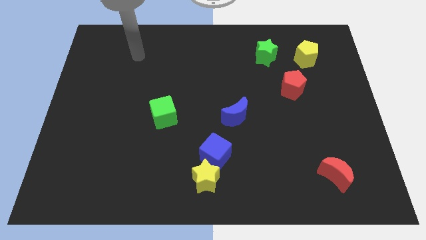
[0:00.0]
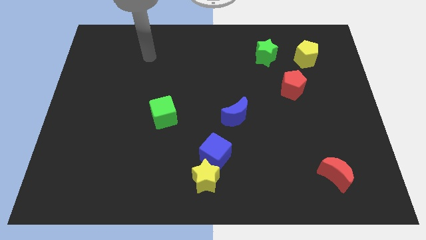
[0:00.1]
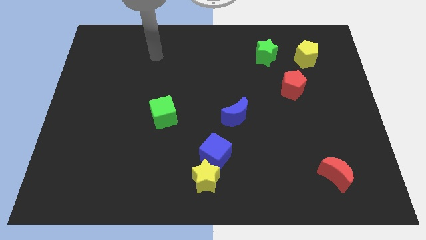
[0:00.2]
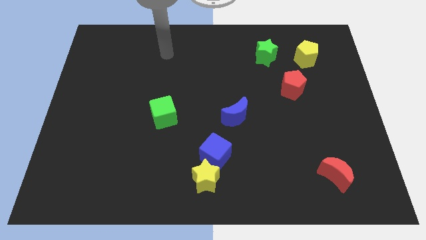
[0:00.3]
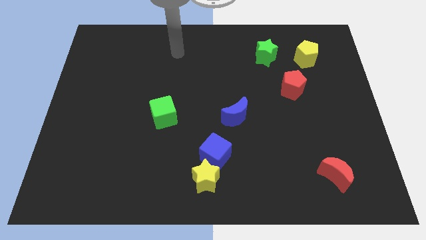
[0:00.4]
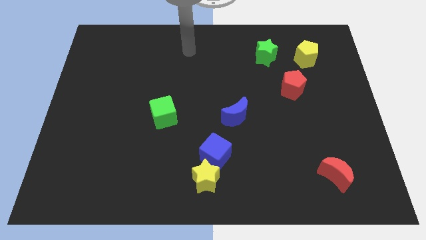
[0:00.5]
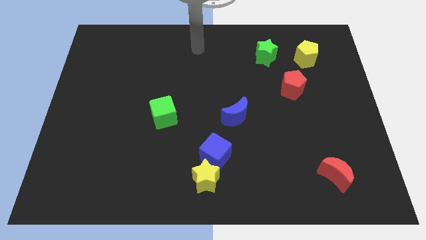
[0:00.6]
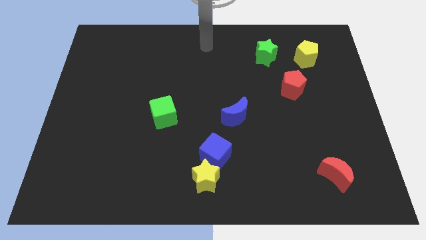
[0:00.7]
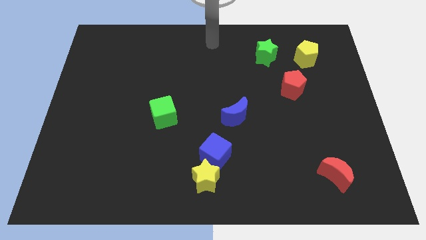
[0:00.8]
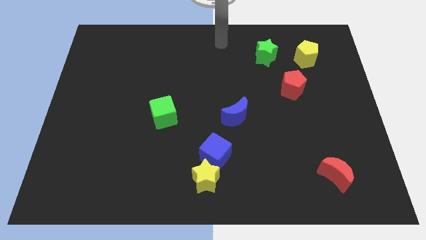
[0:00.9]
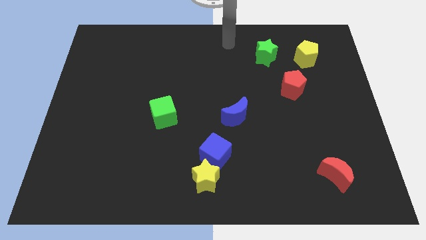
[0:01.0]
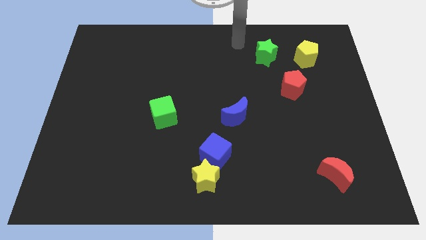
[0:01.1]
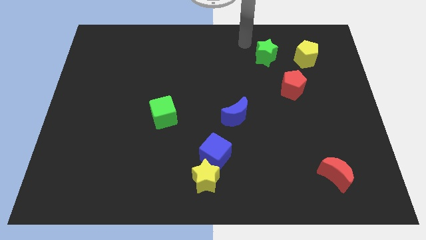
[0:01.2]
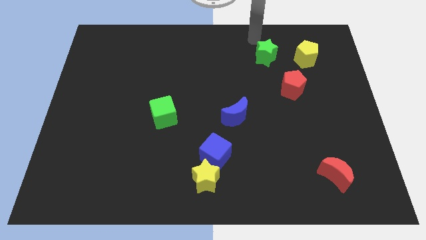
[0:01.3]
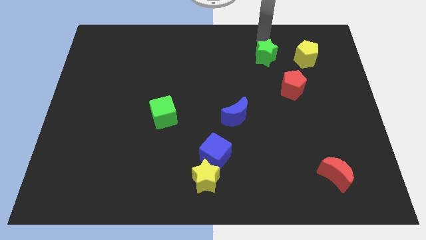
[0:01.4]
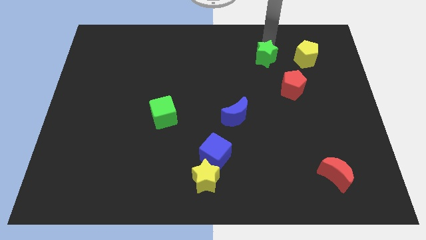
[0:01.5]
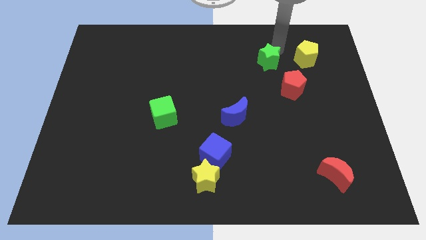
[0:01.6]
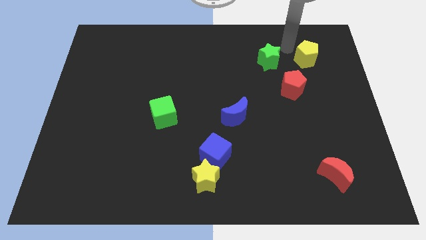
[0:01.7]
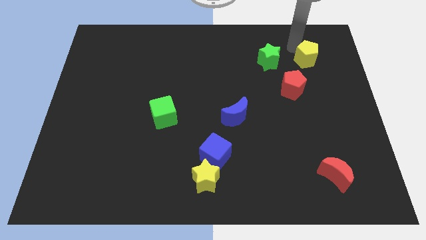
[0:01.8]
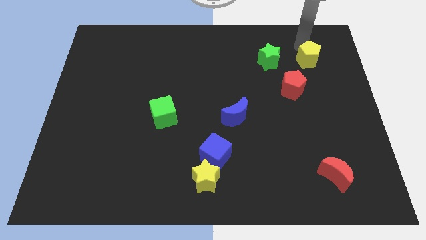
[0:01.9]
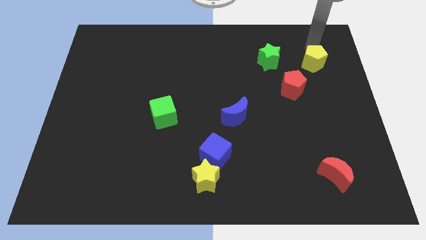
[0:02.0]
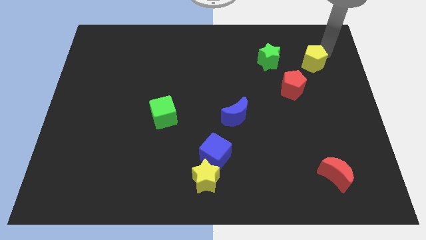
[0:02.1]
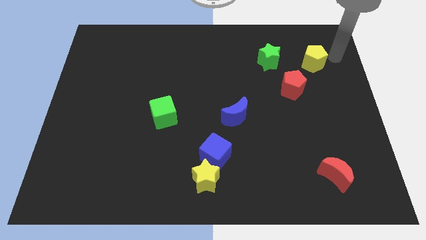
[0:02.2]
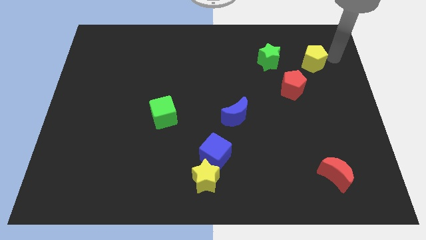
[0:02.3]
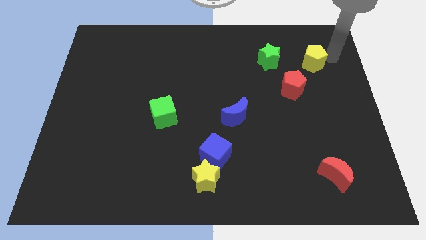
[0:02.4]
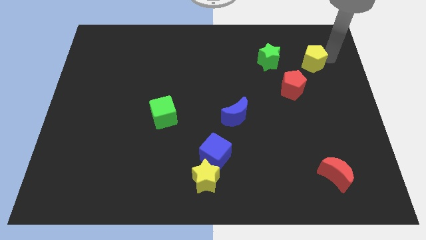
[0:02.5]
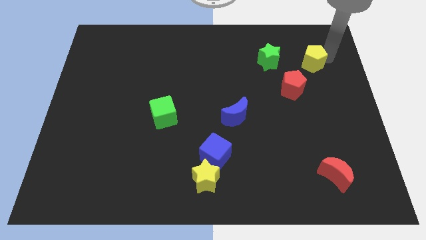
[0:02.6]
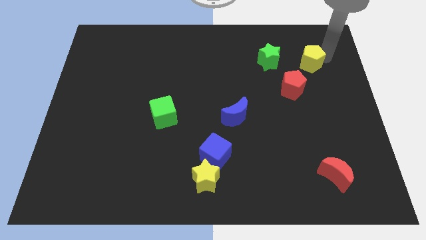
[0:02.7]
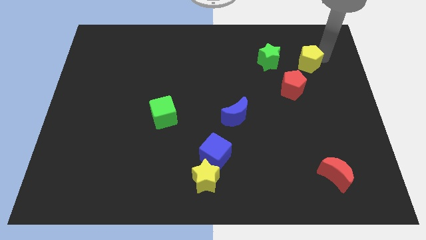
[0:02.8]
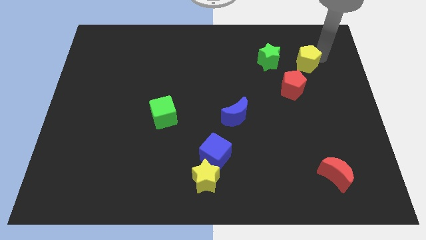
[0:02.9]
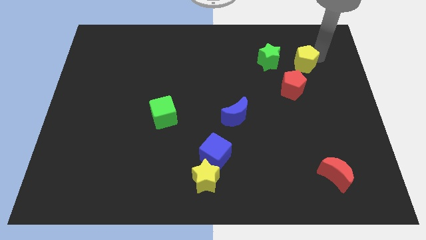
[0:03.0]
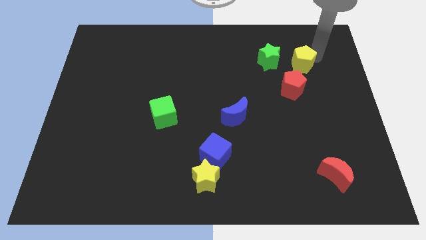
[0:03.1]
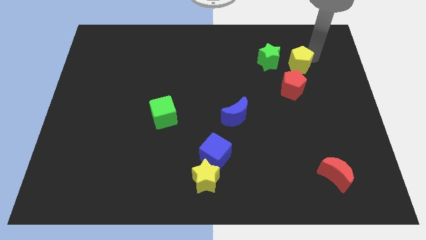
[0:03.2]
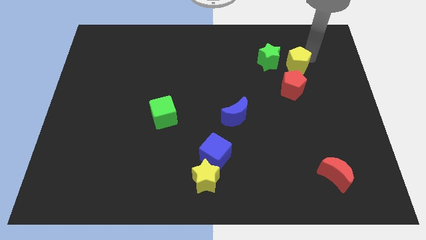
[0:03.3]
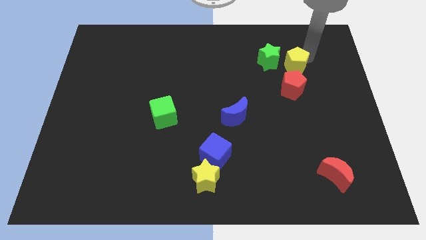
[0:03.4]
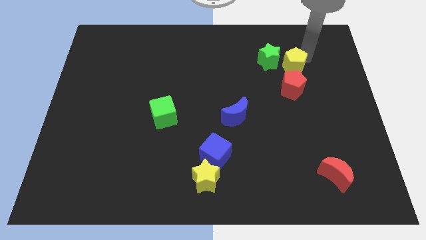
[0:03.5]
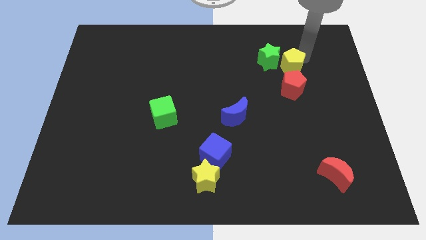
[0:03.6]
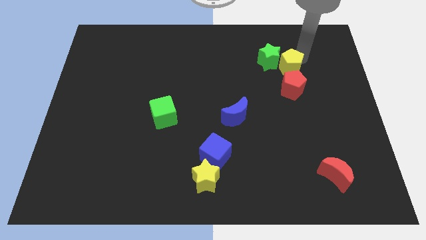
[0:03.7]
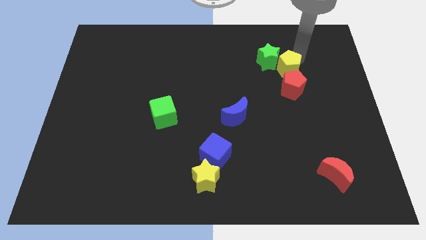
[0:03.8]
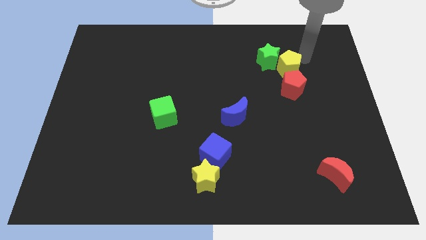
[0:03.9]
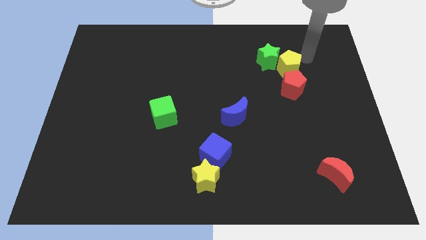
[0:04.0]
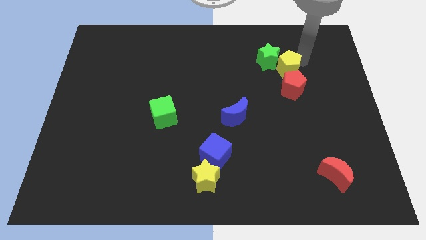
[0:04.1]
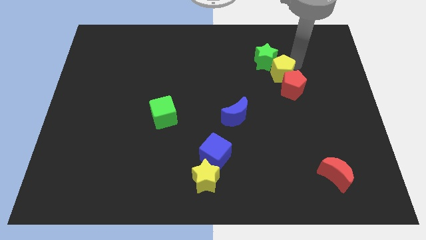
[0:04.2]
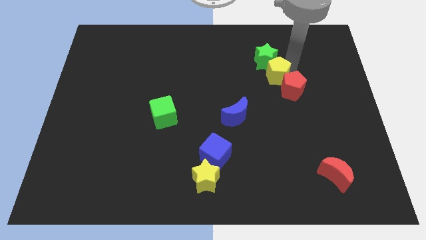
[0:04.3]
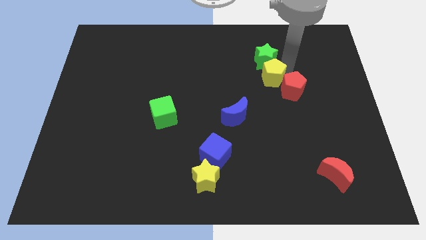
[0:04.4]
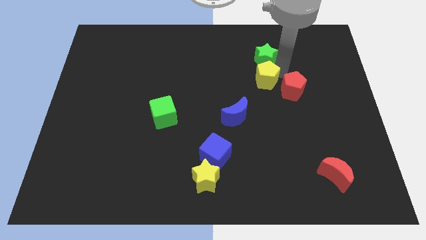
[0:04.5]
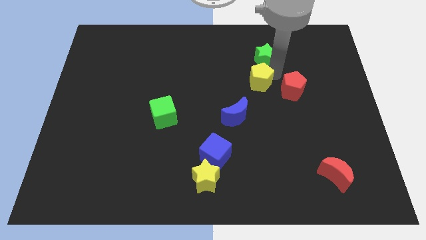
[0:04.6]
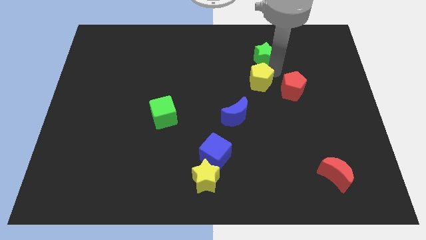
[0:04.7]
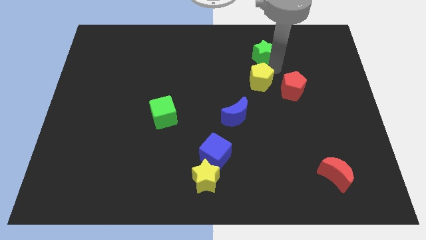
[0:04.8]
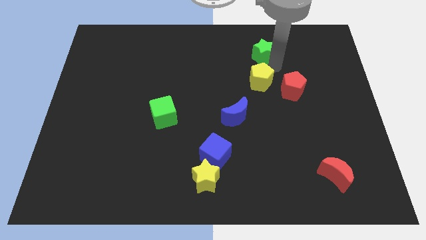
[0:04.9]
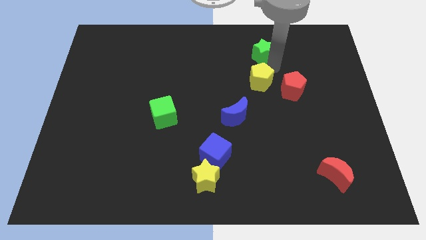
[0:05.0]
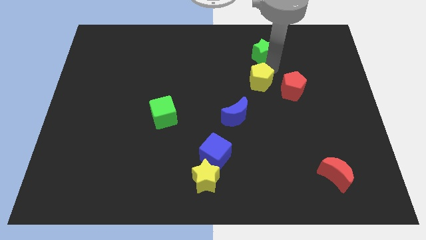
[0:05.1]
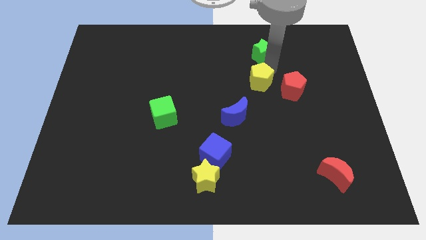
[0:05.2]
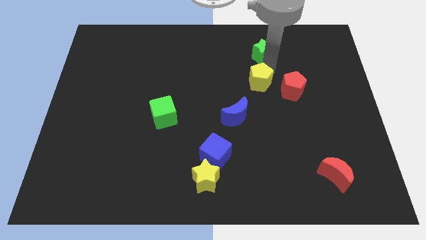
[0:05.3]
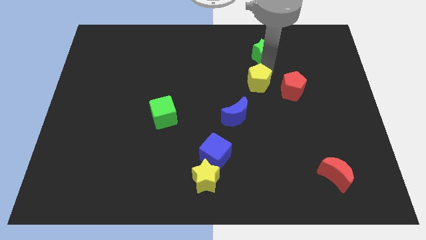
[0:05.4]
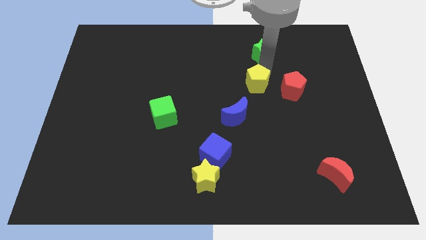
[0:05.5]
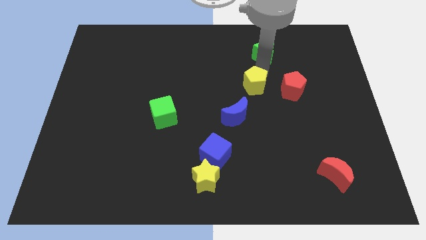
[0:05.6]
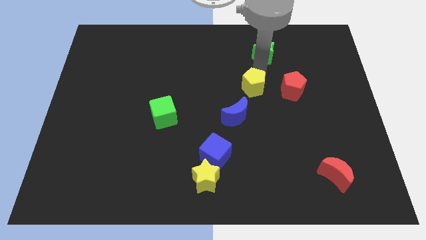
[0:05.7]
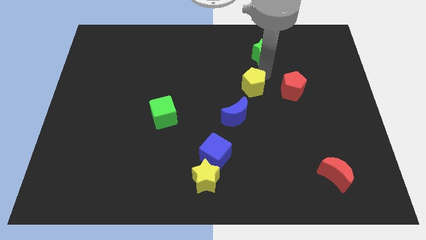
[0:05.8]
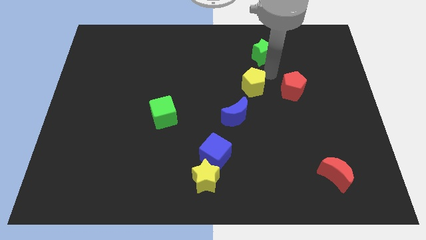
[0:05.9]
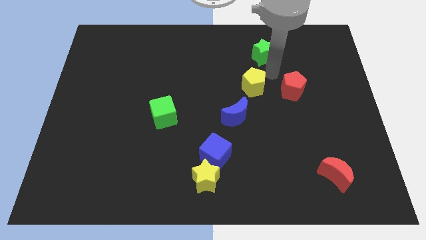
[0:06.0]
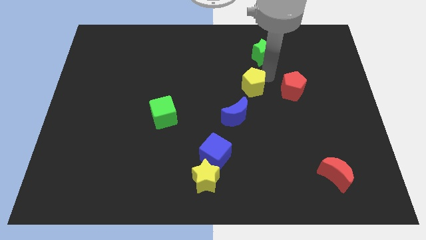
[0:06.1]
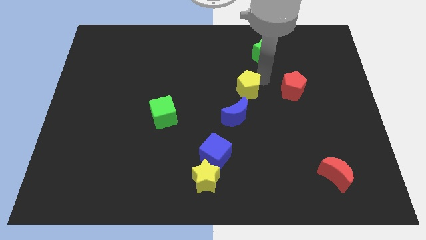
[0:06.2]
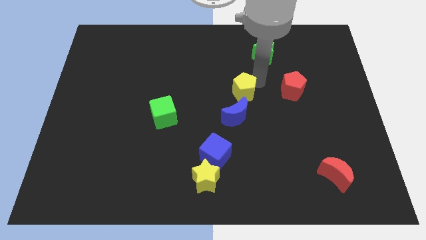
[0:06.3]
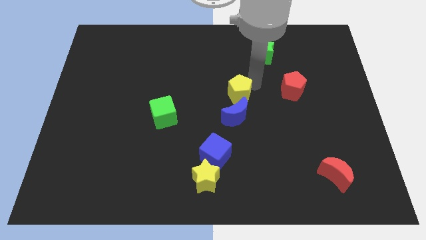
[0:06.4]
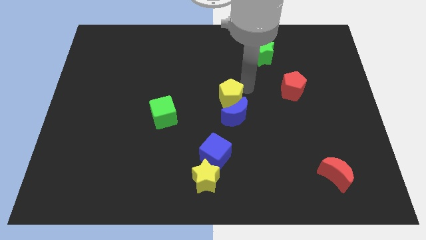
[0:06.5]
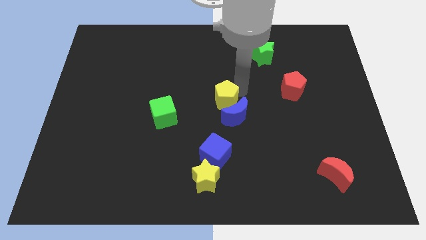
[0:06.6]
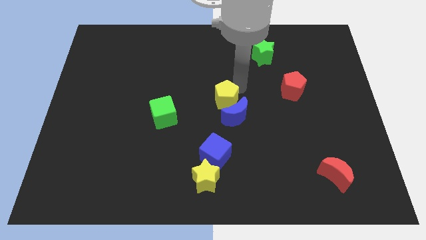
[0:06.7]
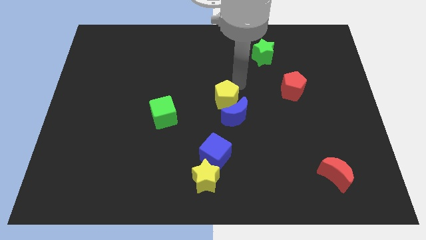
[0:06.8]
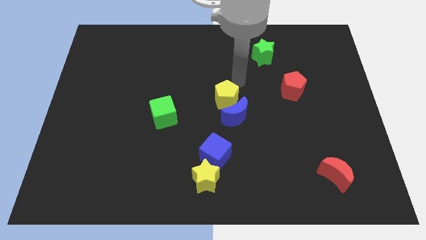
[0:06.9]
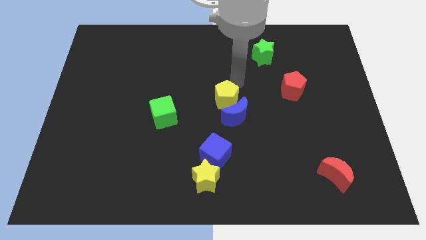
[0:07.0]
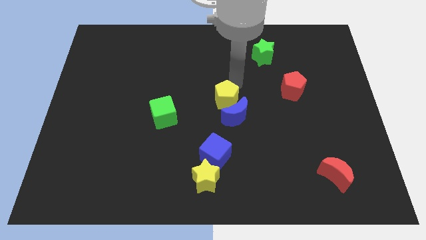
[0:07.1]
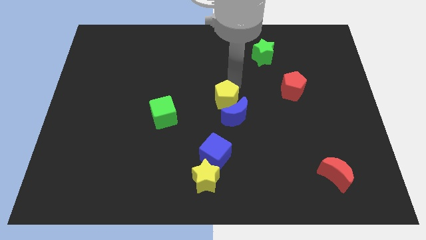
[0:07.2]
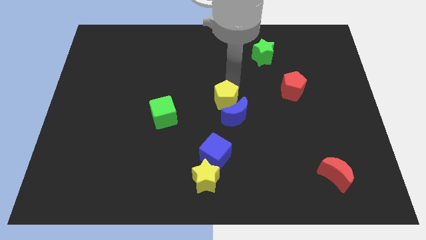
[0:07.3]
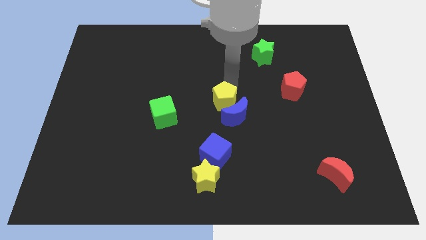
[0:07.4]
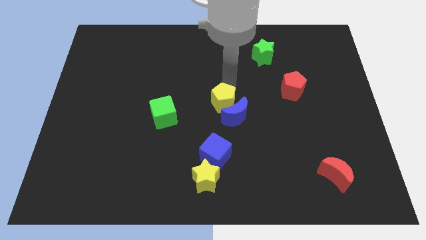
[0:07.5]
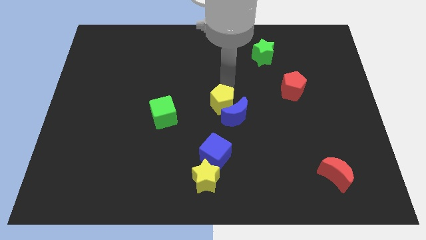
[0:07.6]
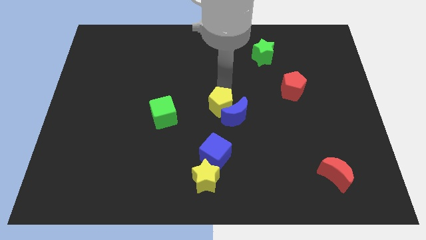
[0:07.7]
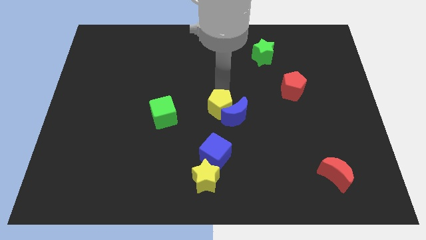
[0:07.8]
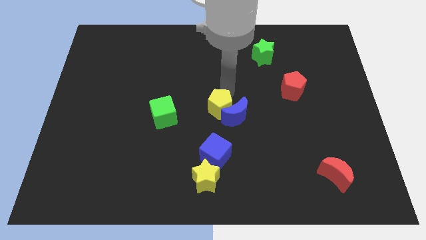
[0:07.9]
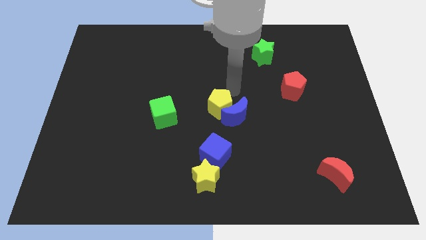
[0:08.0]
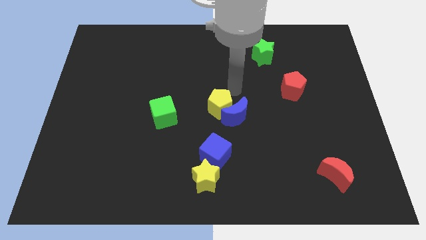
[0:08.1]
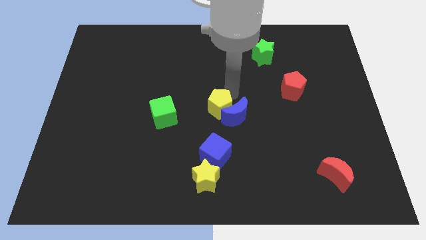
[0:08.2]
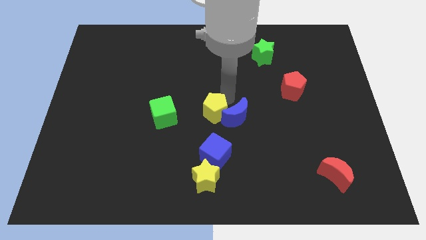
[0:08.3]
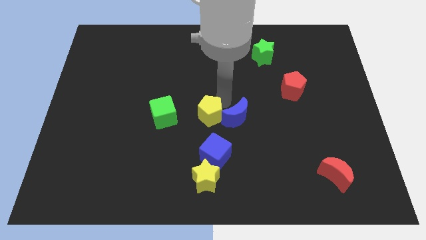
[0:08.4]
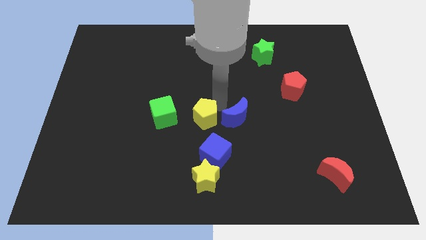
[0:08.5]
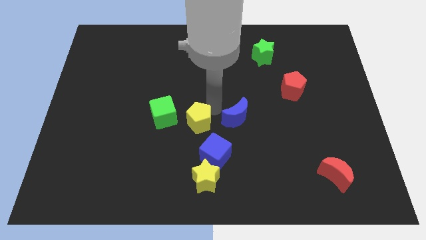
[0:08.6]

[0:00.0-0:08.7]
move the yellow pentagon to the top left side of the blue cube
